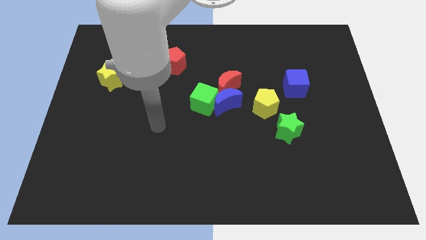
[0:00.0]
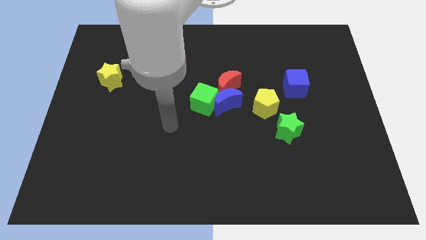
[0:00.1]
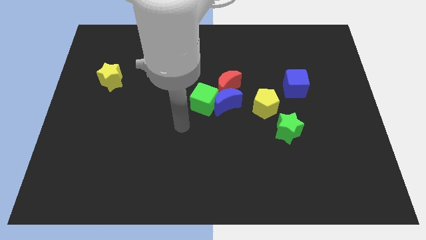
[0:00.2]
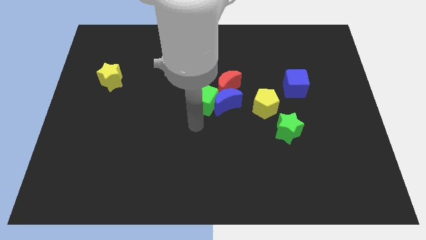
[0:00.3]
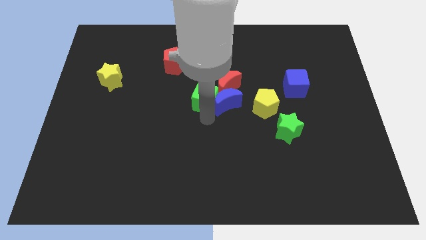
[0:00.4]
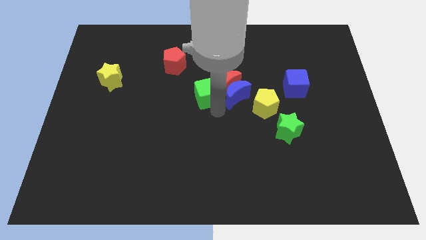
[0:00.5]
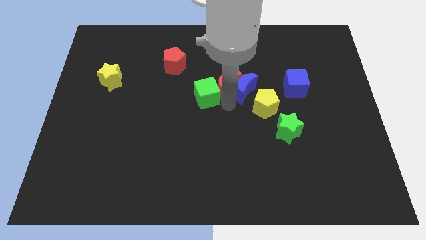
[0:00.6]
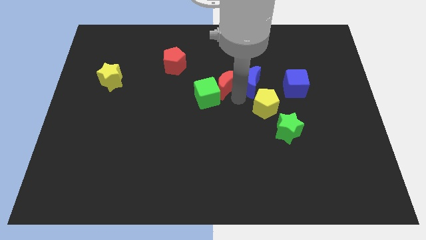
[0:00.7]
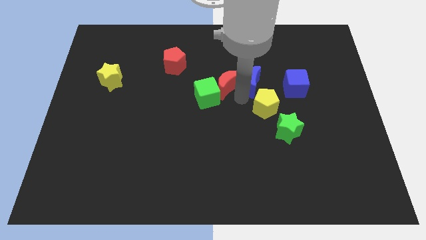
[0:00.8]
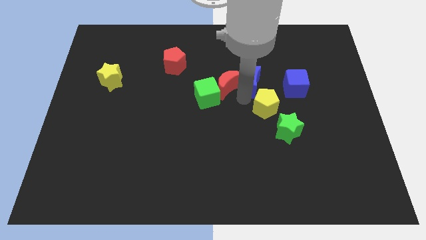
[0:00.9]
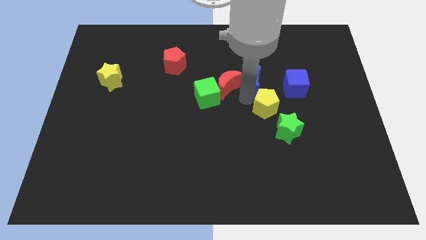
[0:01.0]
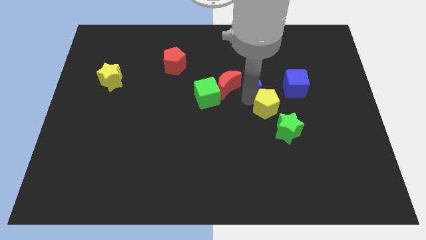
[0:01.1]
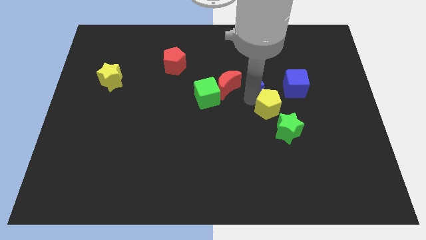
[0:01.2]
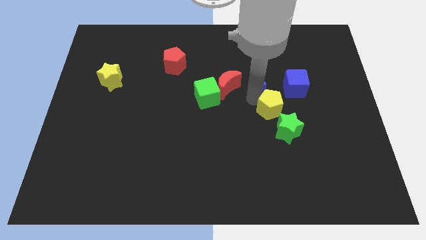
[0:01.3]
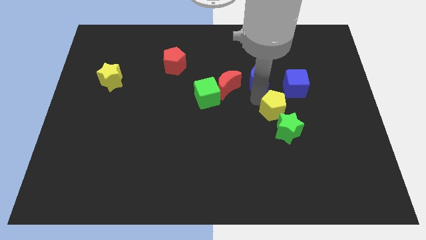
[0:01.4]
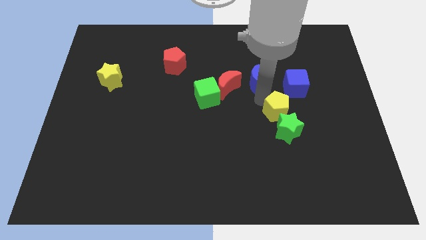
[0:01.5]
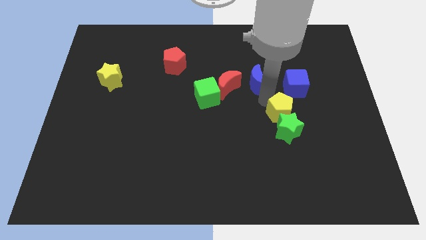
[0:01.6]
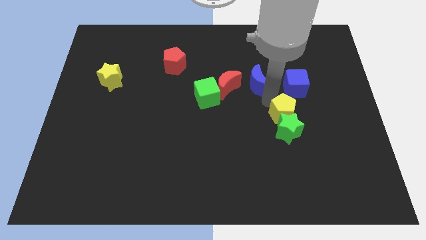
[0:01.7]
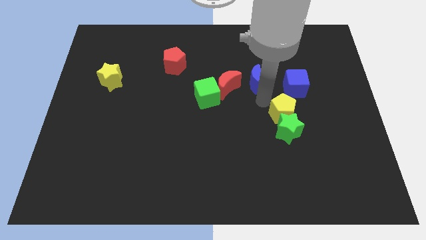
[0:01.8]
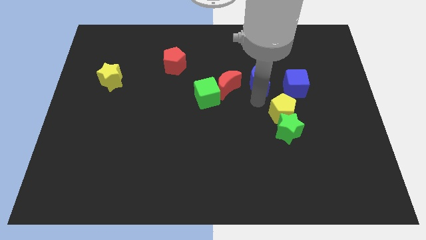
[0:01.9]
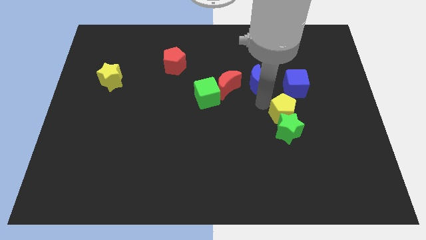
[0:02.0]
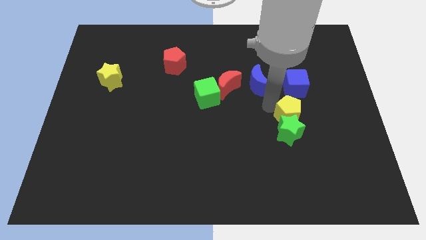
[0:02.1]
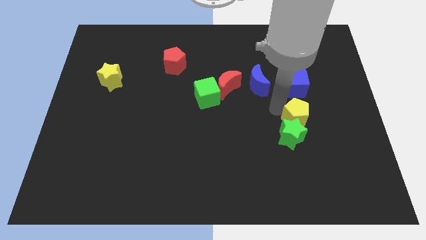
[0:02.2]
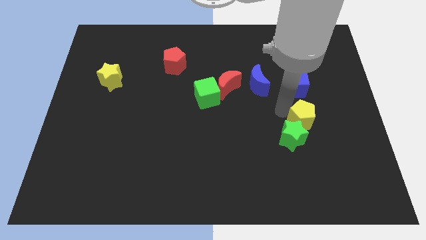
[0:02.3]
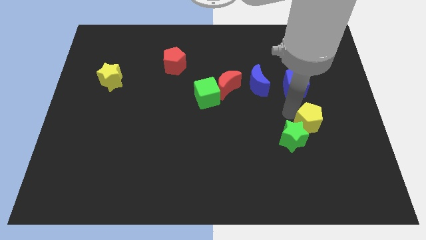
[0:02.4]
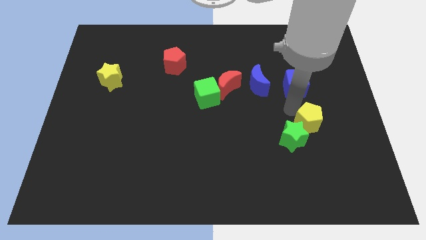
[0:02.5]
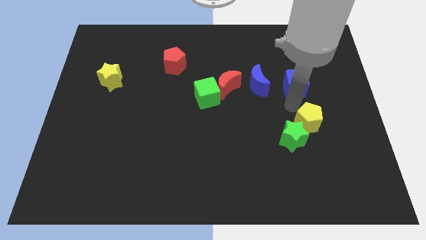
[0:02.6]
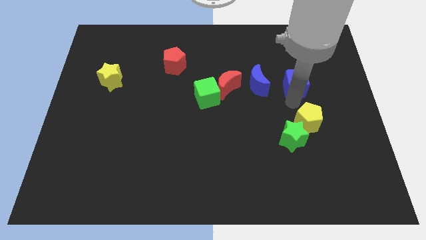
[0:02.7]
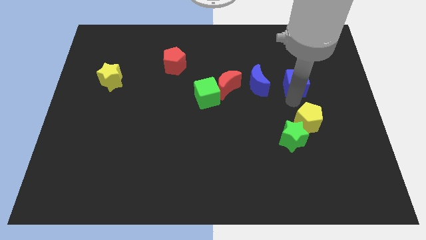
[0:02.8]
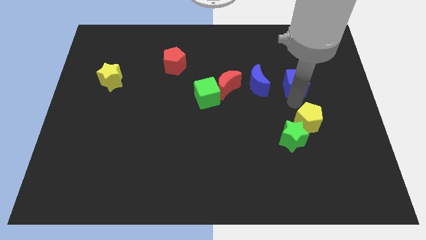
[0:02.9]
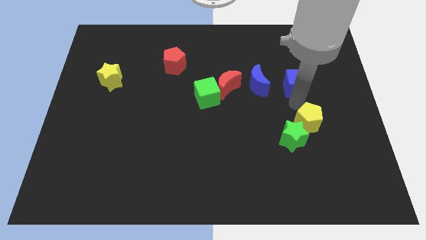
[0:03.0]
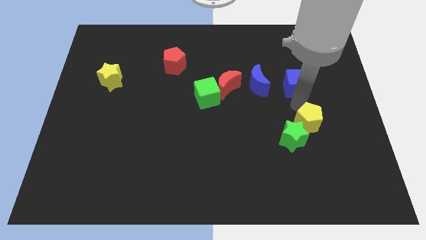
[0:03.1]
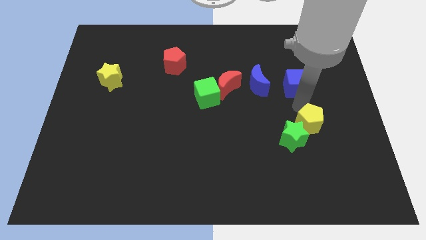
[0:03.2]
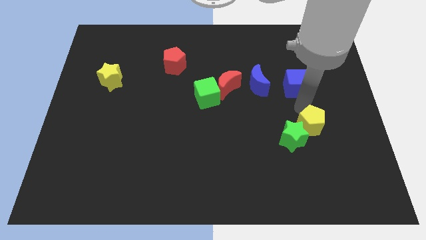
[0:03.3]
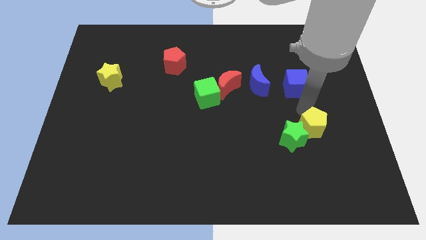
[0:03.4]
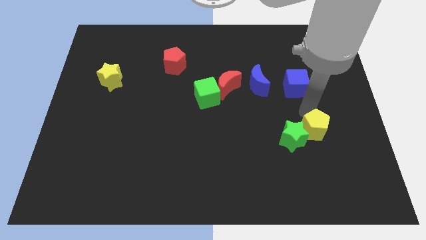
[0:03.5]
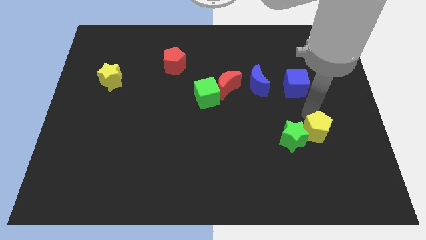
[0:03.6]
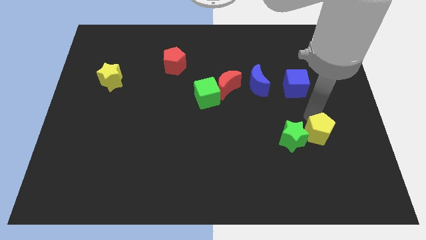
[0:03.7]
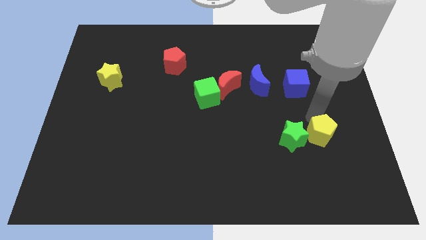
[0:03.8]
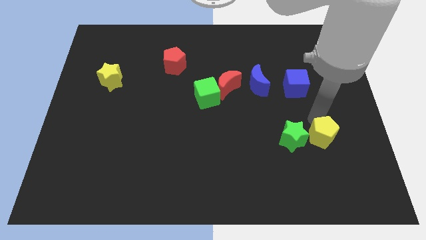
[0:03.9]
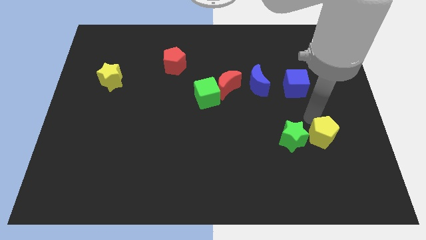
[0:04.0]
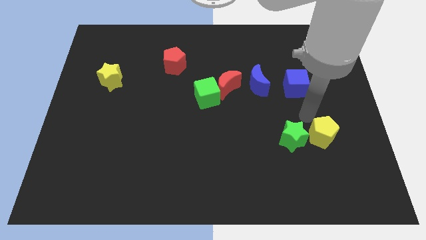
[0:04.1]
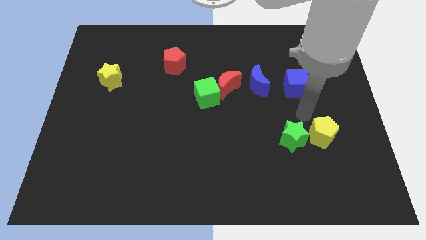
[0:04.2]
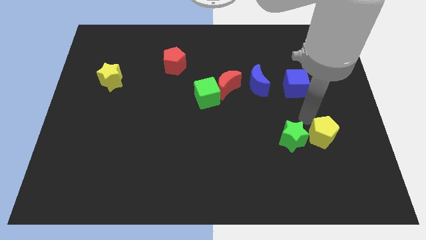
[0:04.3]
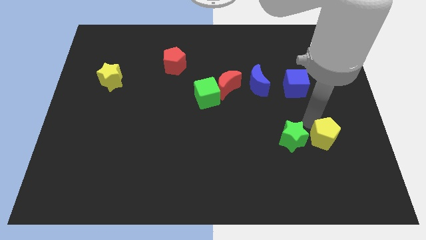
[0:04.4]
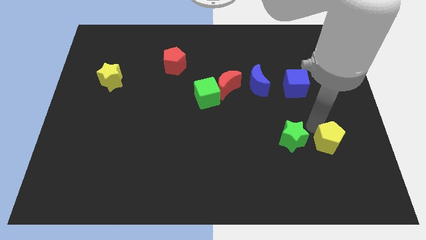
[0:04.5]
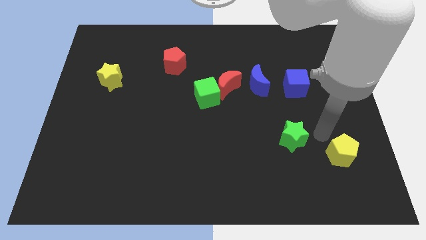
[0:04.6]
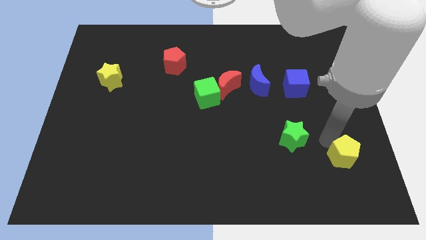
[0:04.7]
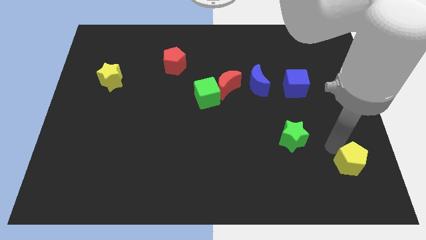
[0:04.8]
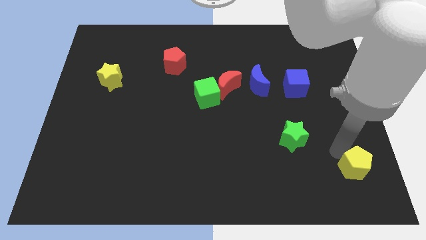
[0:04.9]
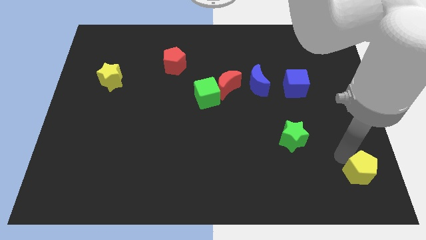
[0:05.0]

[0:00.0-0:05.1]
move the yellow pentagon to the bottom right

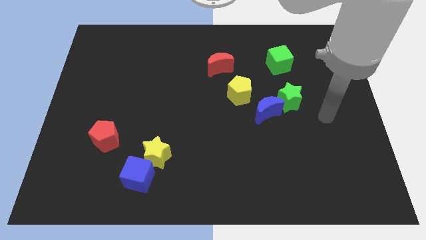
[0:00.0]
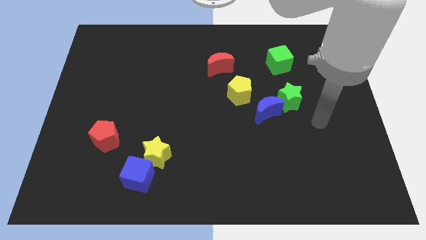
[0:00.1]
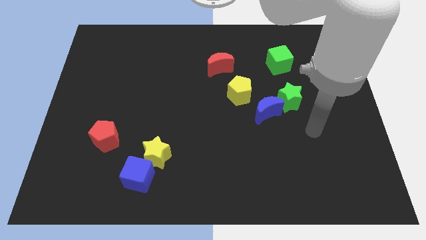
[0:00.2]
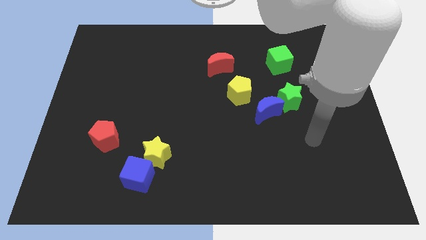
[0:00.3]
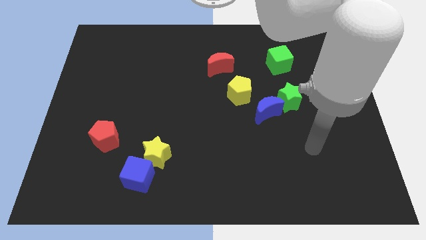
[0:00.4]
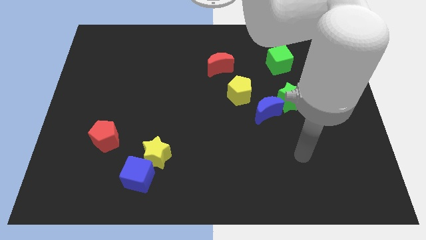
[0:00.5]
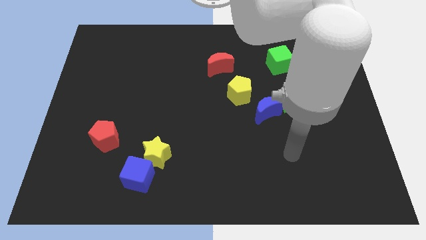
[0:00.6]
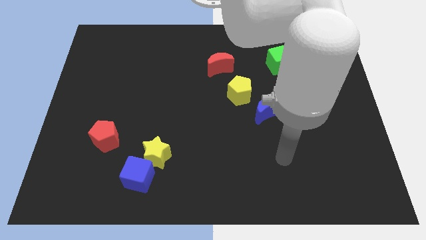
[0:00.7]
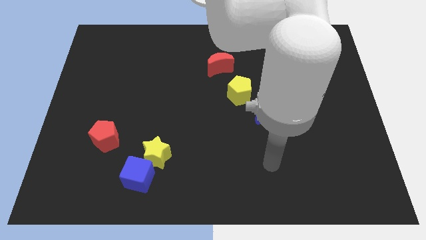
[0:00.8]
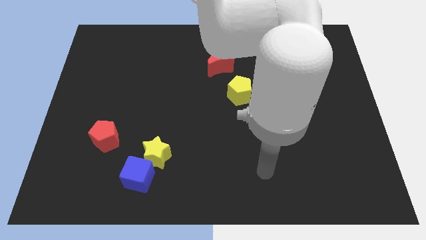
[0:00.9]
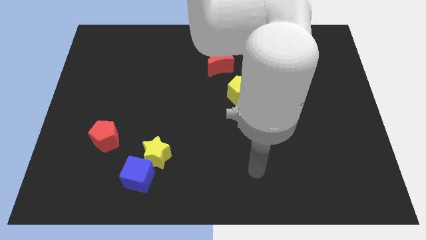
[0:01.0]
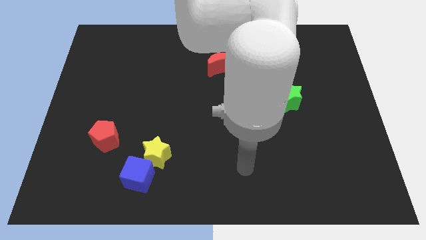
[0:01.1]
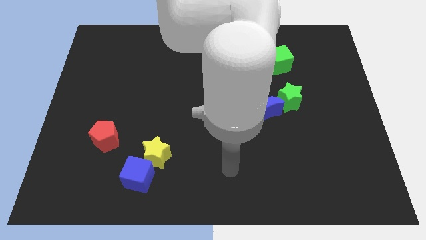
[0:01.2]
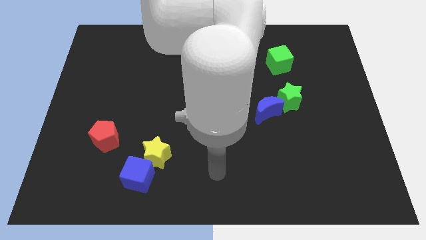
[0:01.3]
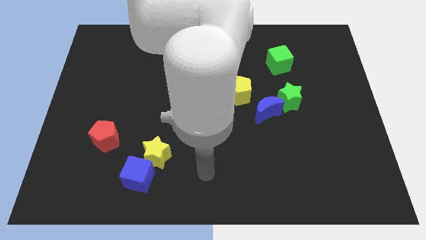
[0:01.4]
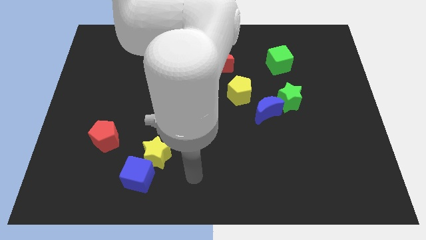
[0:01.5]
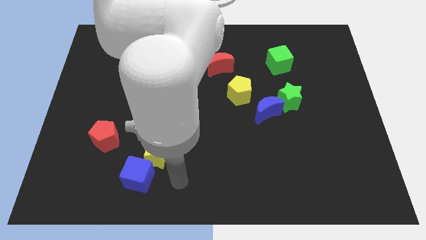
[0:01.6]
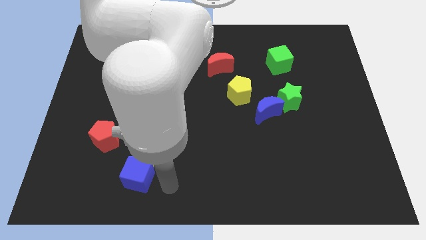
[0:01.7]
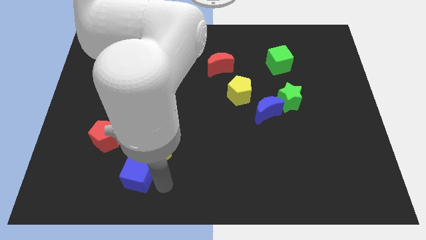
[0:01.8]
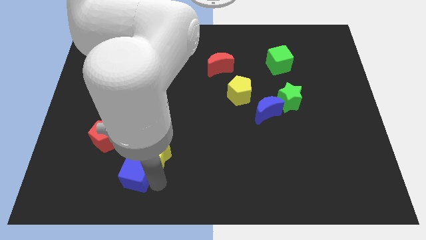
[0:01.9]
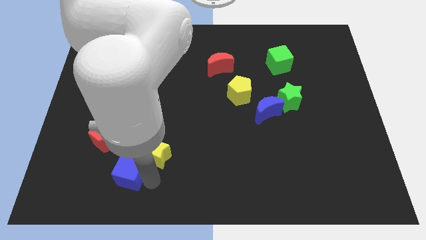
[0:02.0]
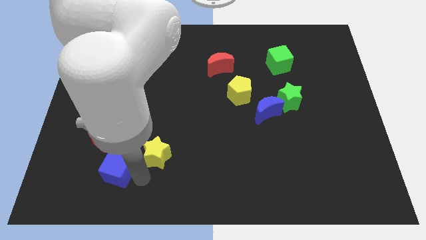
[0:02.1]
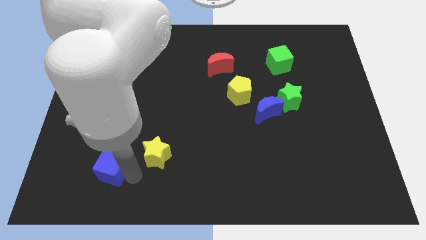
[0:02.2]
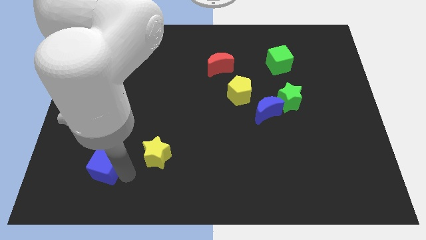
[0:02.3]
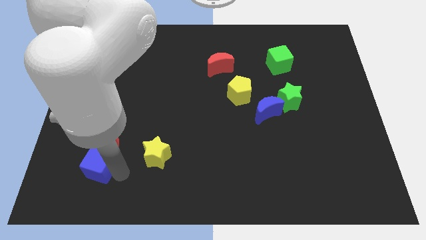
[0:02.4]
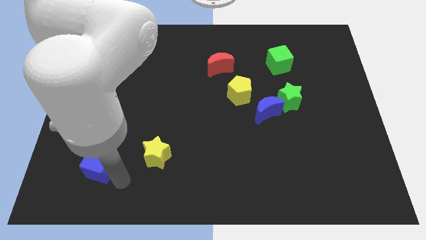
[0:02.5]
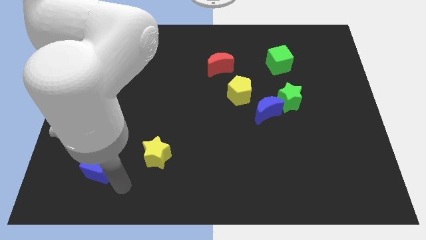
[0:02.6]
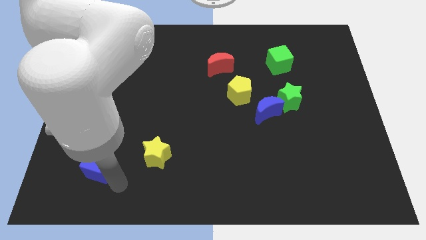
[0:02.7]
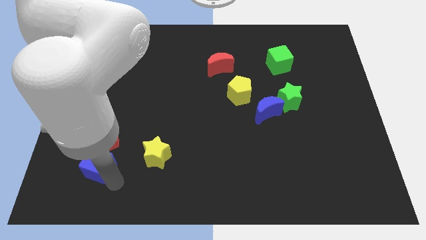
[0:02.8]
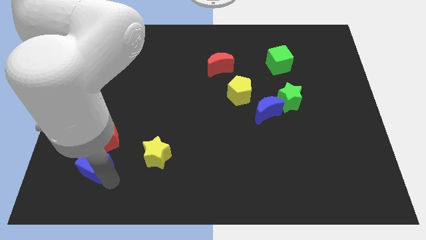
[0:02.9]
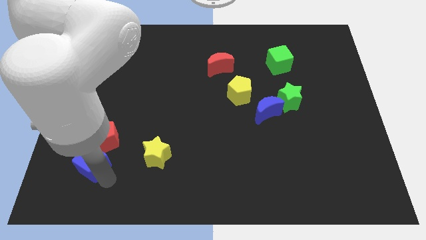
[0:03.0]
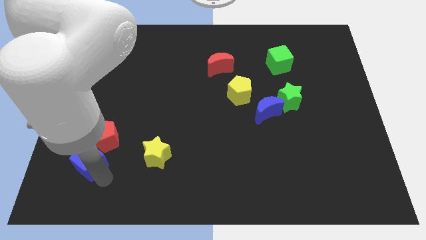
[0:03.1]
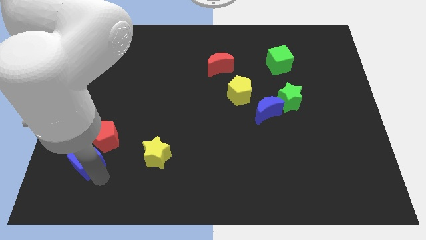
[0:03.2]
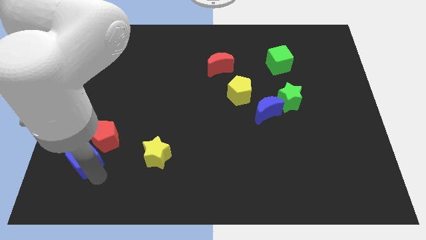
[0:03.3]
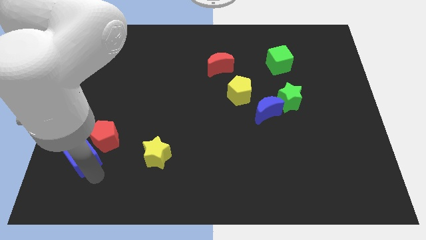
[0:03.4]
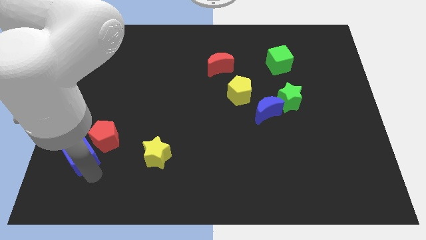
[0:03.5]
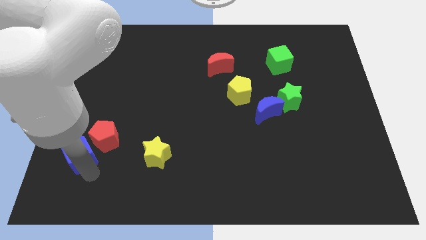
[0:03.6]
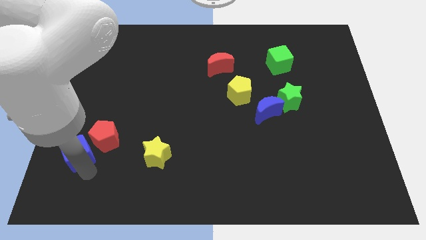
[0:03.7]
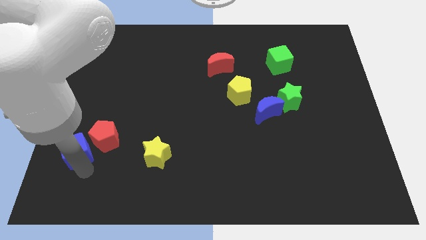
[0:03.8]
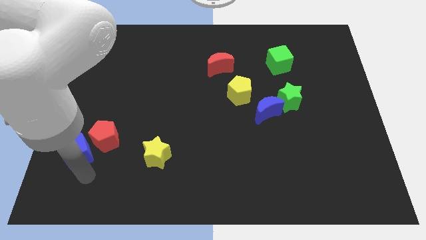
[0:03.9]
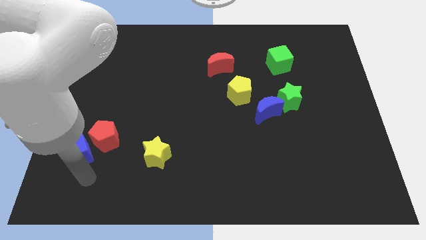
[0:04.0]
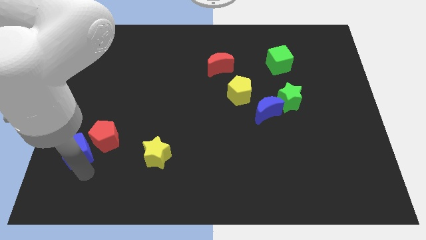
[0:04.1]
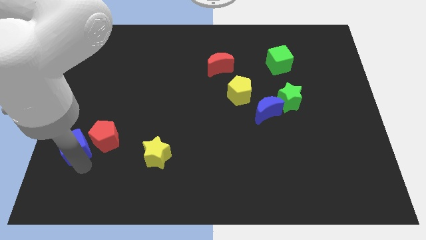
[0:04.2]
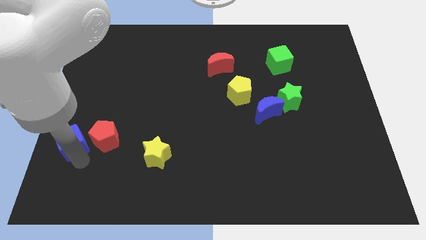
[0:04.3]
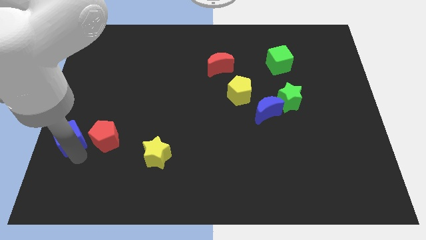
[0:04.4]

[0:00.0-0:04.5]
push the blue cube to the center left
